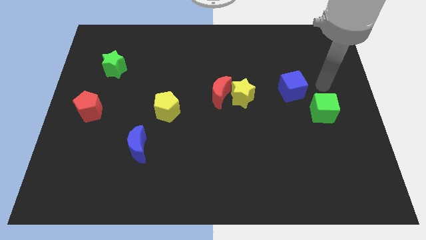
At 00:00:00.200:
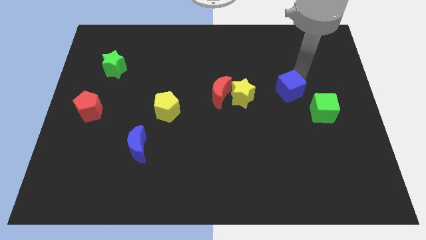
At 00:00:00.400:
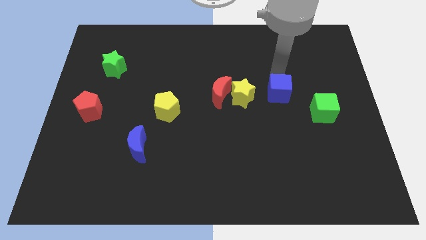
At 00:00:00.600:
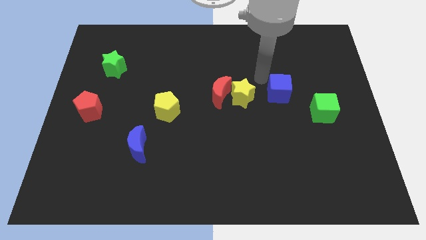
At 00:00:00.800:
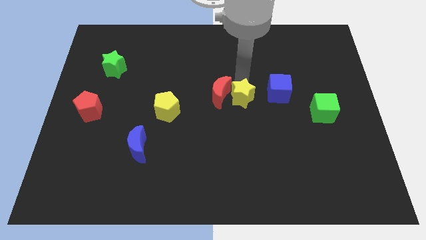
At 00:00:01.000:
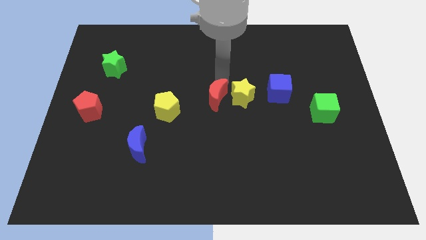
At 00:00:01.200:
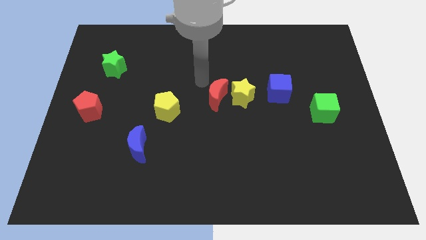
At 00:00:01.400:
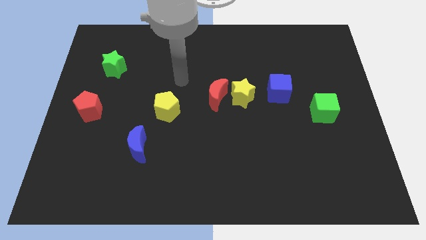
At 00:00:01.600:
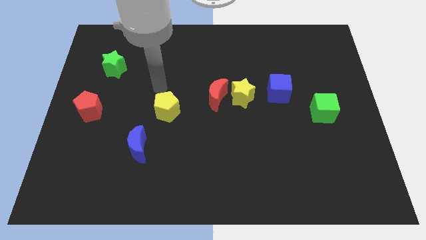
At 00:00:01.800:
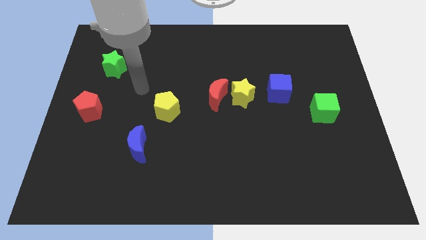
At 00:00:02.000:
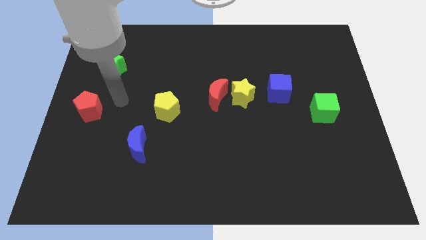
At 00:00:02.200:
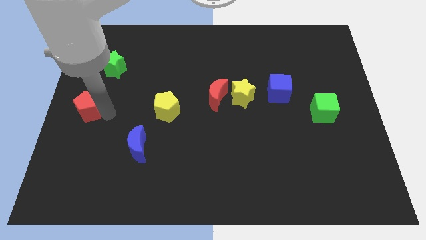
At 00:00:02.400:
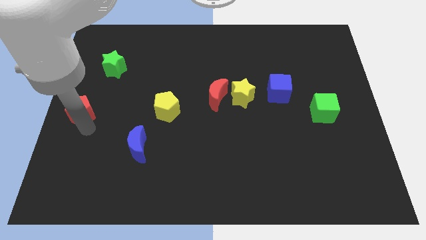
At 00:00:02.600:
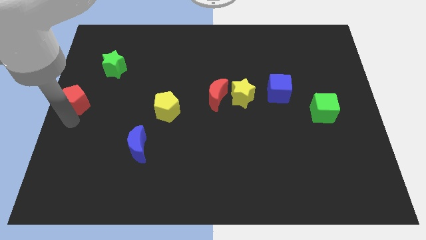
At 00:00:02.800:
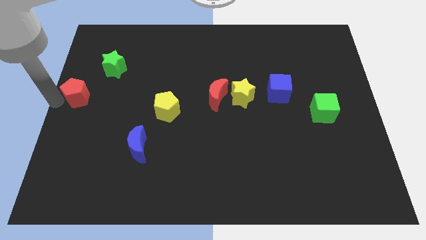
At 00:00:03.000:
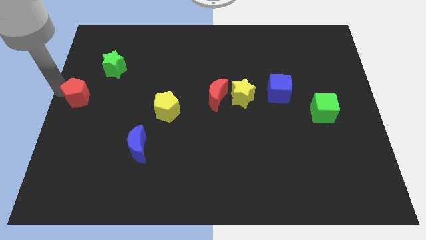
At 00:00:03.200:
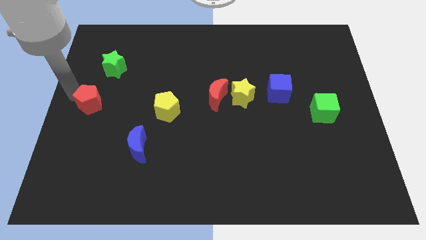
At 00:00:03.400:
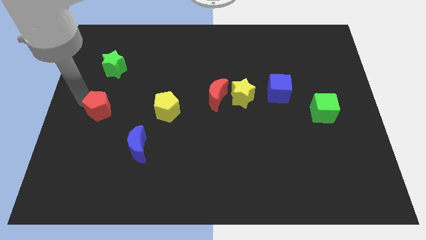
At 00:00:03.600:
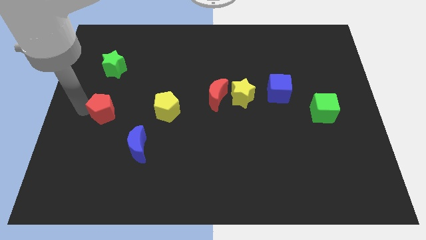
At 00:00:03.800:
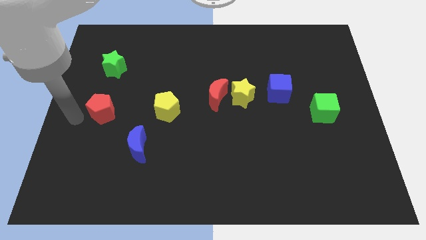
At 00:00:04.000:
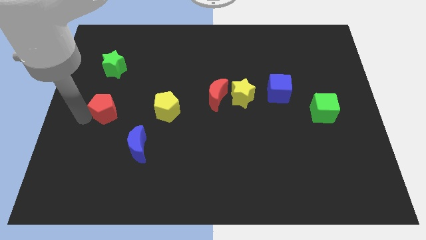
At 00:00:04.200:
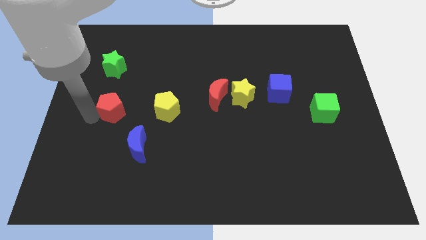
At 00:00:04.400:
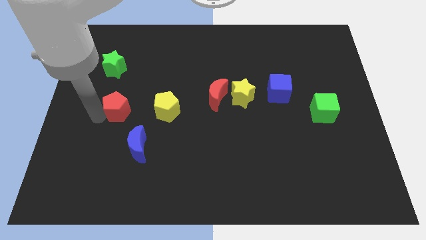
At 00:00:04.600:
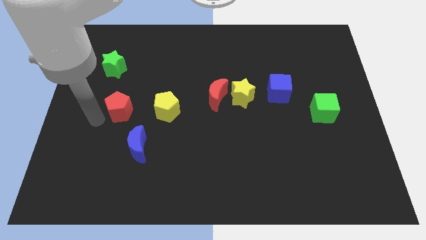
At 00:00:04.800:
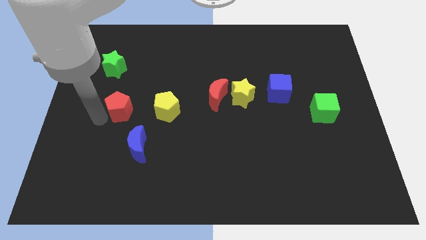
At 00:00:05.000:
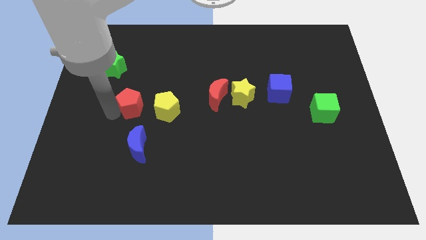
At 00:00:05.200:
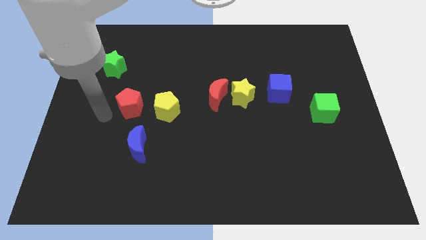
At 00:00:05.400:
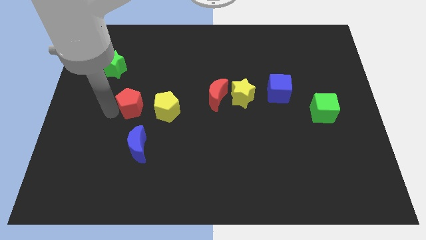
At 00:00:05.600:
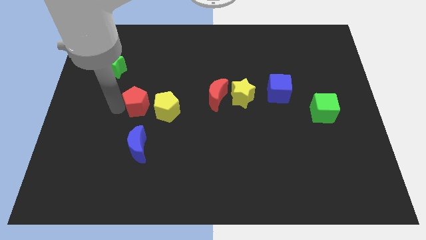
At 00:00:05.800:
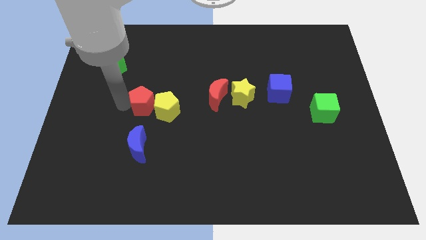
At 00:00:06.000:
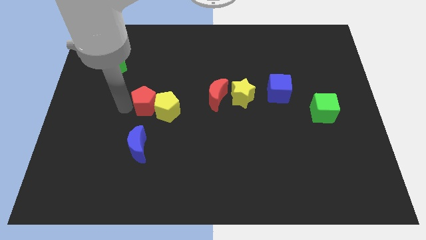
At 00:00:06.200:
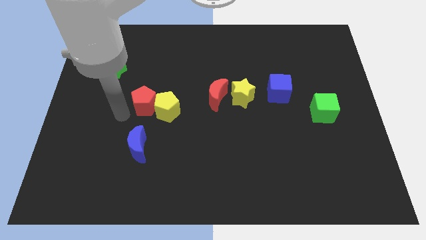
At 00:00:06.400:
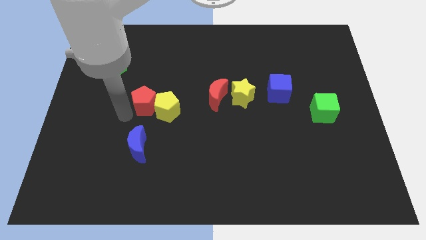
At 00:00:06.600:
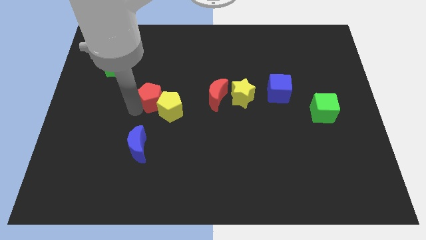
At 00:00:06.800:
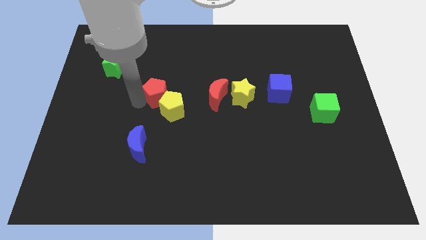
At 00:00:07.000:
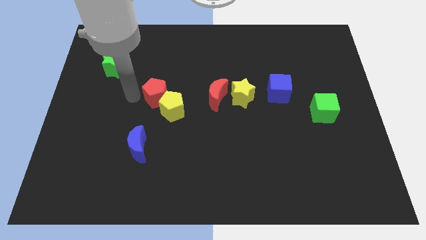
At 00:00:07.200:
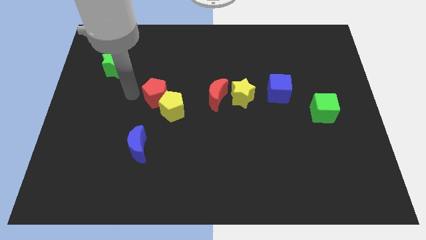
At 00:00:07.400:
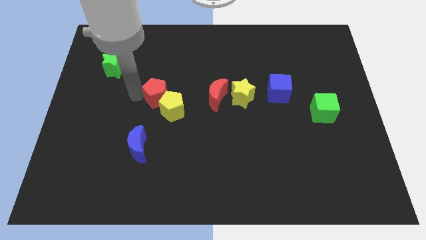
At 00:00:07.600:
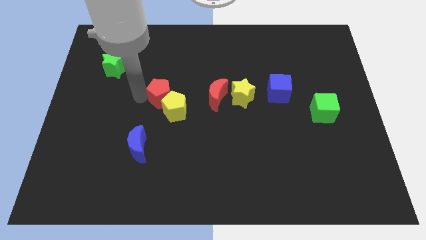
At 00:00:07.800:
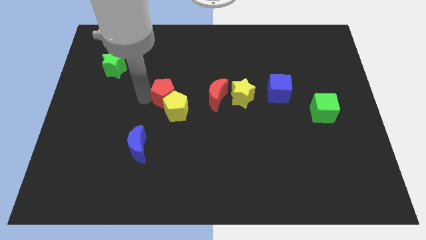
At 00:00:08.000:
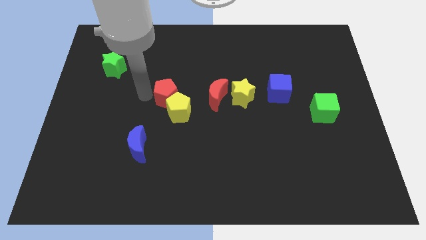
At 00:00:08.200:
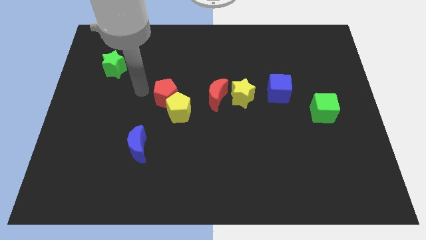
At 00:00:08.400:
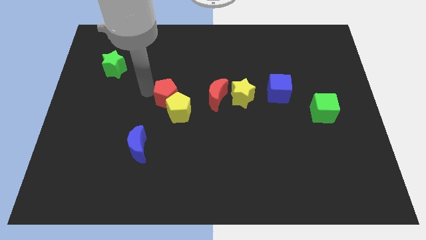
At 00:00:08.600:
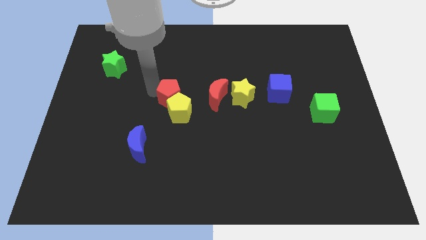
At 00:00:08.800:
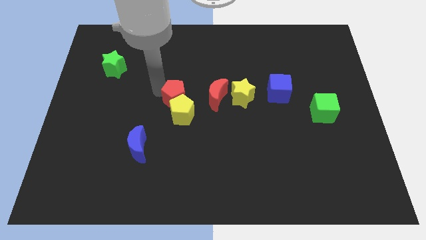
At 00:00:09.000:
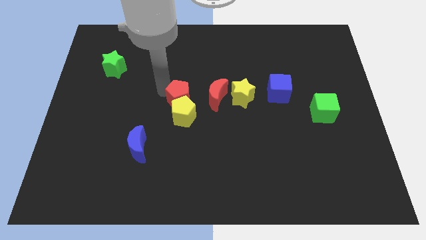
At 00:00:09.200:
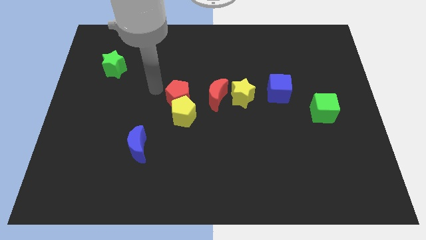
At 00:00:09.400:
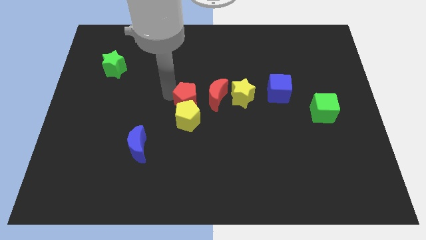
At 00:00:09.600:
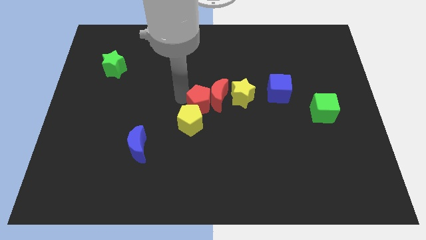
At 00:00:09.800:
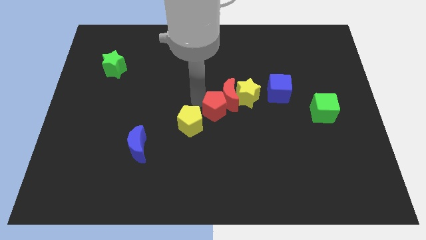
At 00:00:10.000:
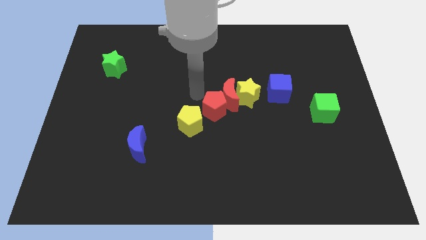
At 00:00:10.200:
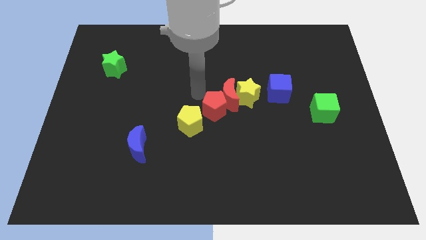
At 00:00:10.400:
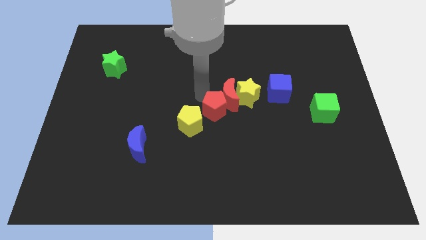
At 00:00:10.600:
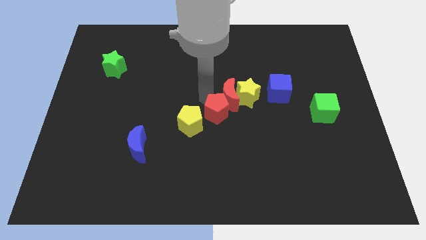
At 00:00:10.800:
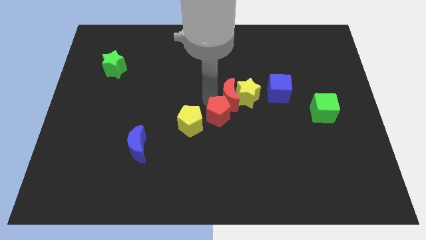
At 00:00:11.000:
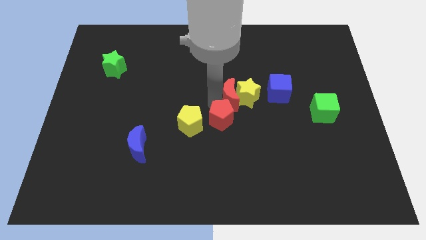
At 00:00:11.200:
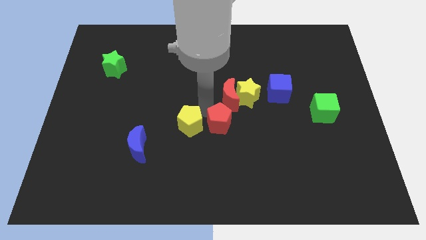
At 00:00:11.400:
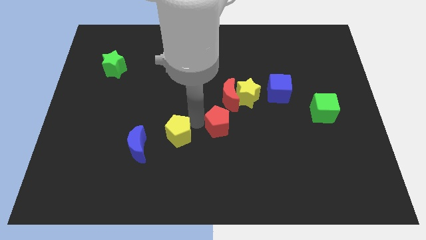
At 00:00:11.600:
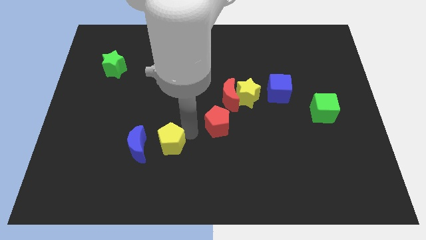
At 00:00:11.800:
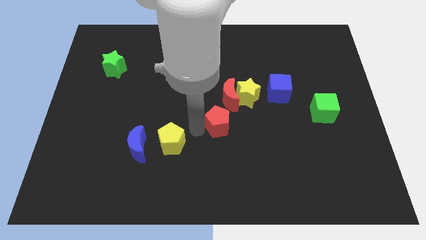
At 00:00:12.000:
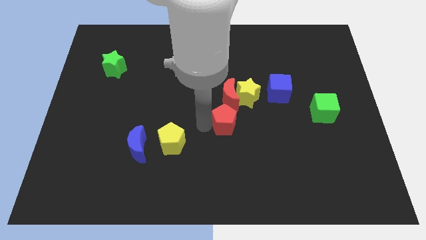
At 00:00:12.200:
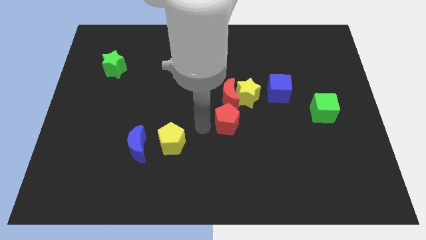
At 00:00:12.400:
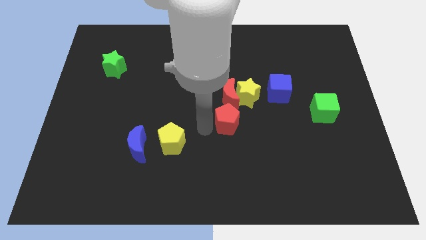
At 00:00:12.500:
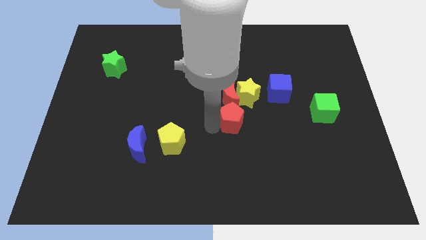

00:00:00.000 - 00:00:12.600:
move the red pentagon to the bottom right of the red moon
